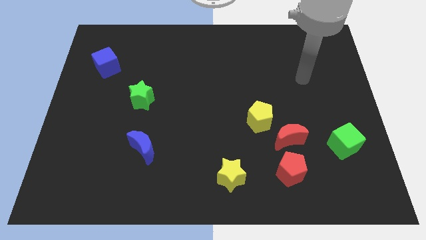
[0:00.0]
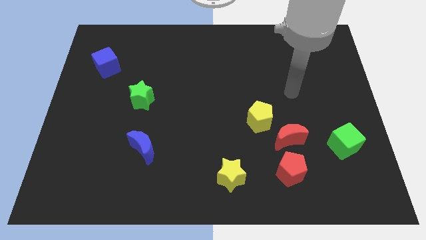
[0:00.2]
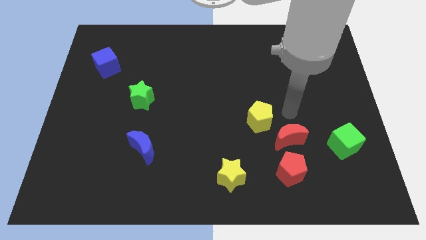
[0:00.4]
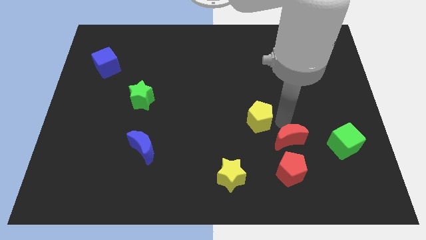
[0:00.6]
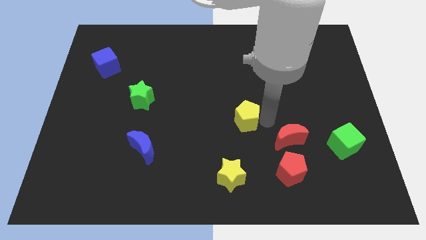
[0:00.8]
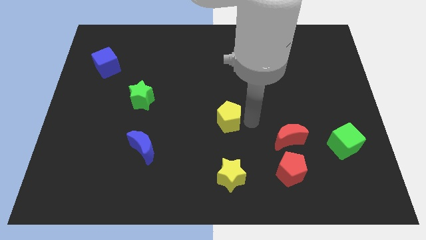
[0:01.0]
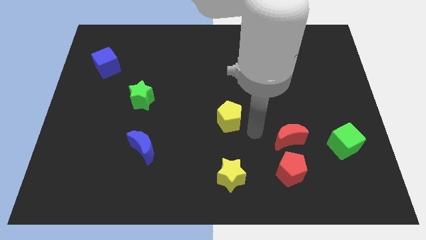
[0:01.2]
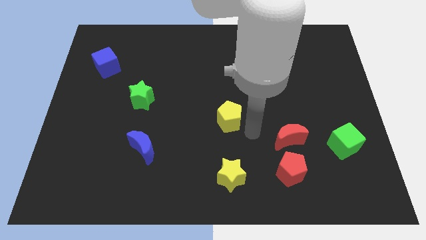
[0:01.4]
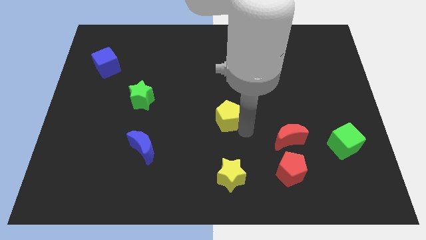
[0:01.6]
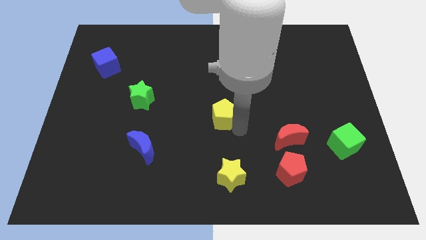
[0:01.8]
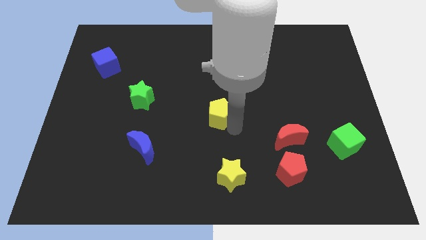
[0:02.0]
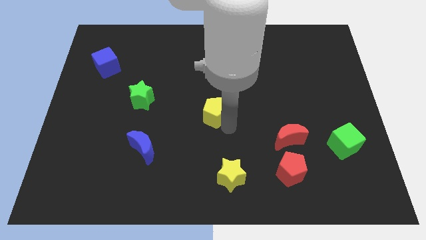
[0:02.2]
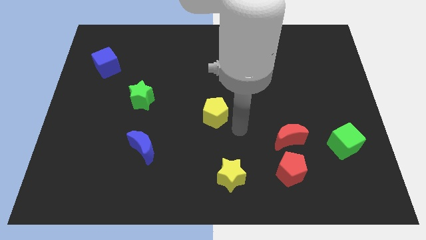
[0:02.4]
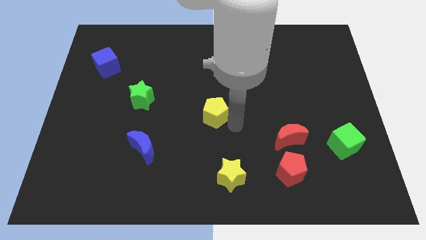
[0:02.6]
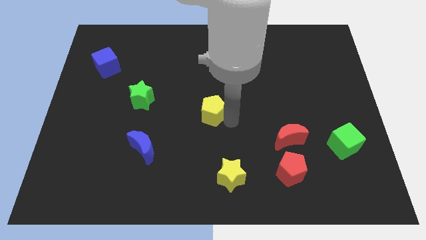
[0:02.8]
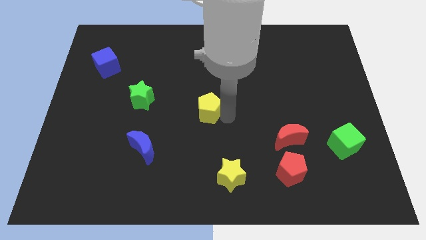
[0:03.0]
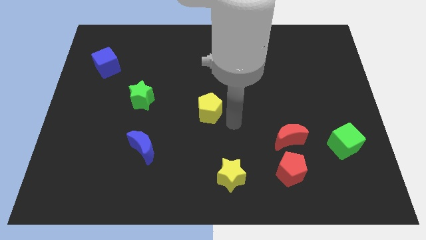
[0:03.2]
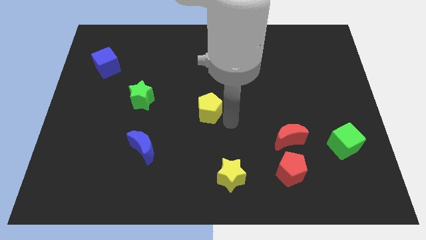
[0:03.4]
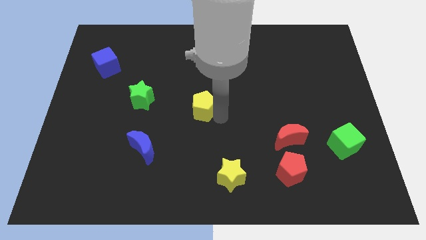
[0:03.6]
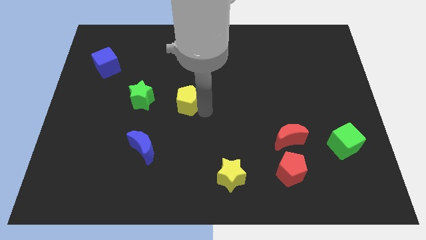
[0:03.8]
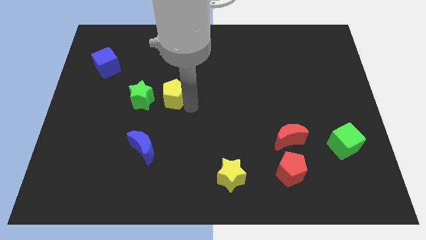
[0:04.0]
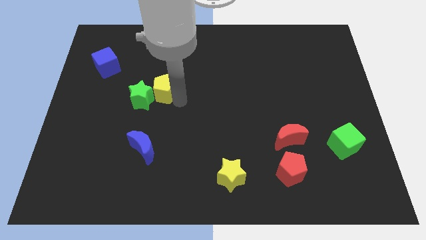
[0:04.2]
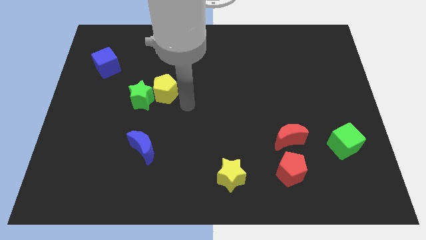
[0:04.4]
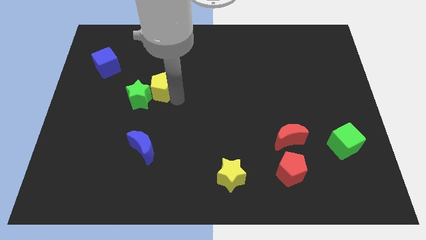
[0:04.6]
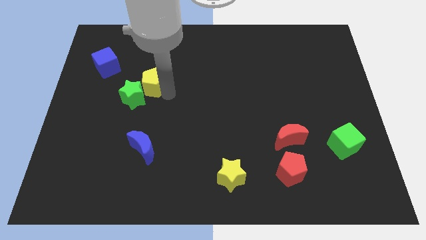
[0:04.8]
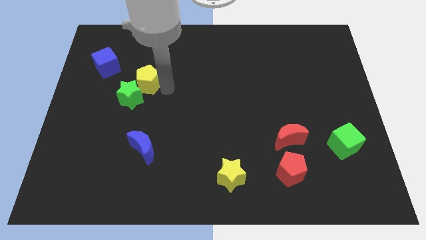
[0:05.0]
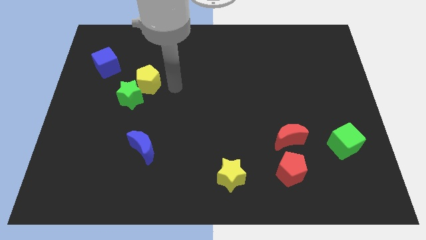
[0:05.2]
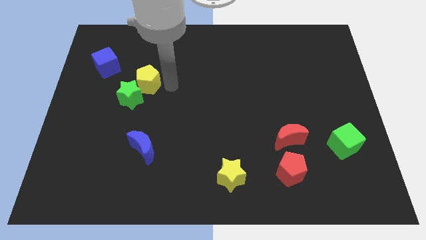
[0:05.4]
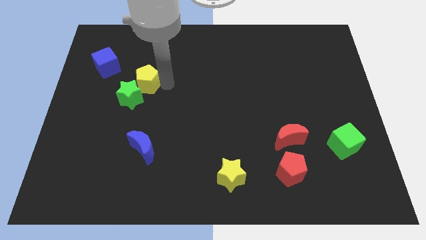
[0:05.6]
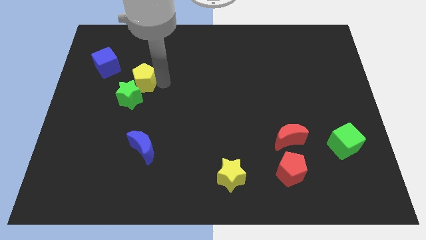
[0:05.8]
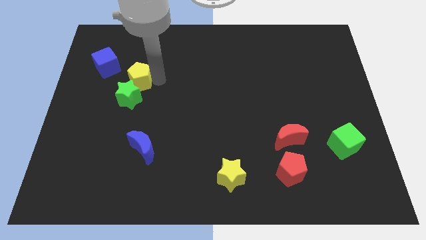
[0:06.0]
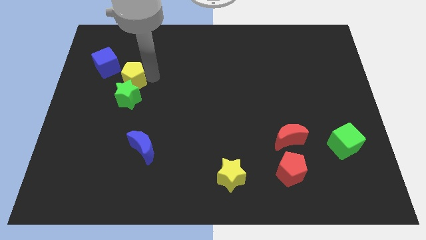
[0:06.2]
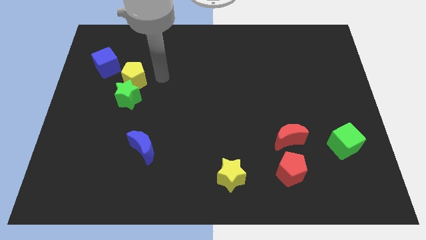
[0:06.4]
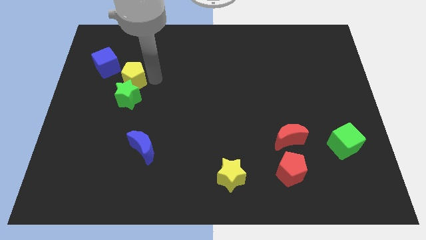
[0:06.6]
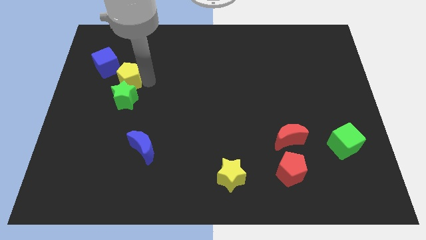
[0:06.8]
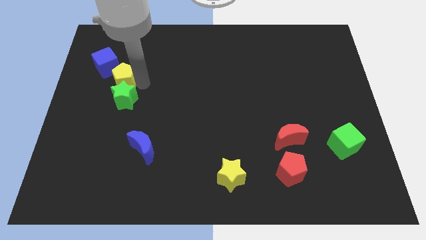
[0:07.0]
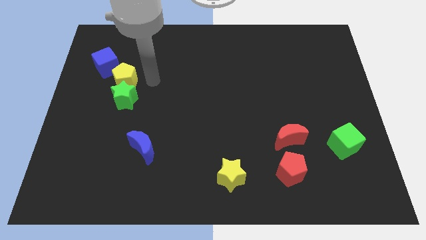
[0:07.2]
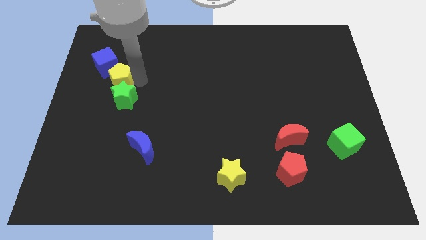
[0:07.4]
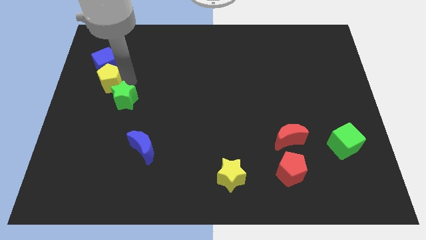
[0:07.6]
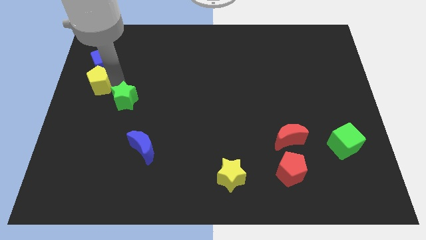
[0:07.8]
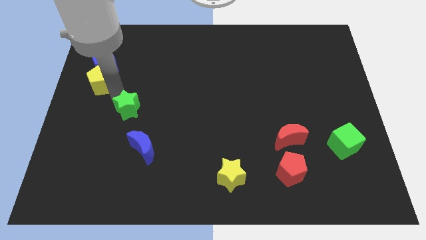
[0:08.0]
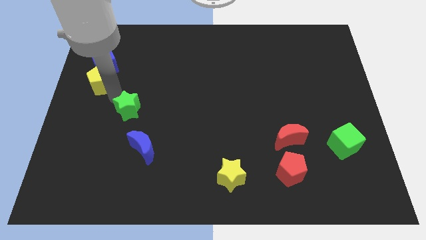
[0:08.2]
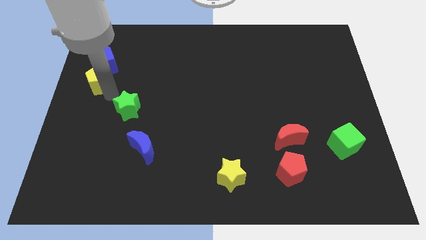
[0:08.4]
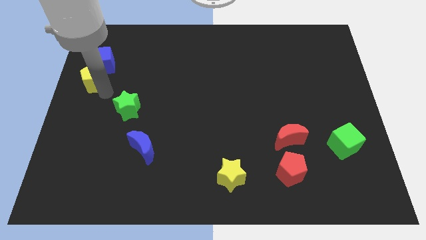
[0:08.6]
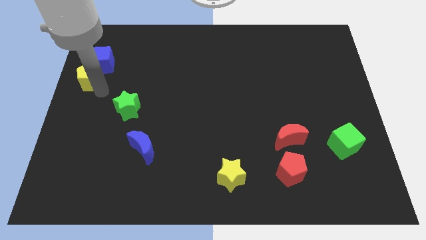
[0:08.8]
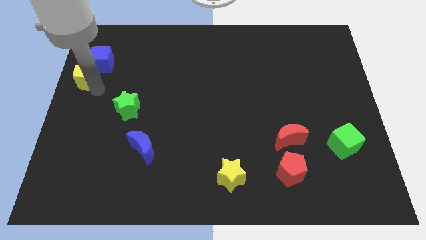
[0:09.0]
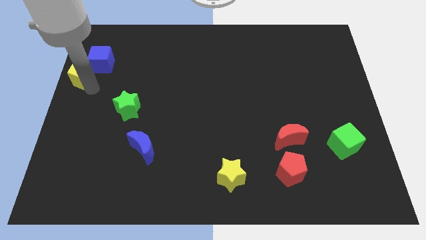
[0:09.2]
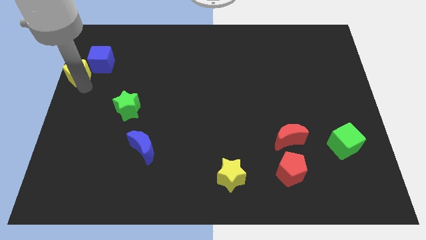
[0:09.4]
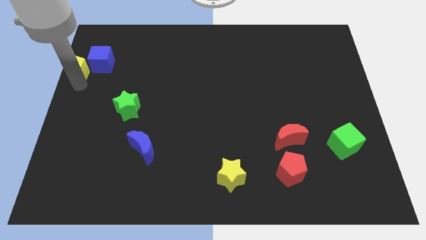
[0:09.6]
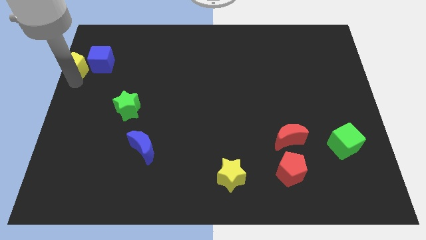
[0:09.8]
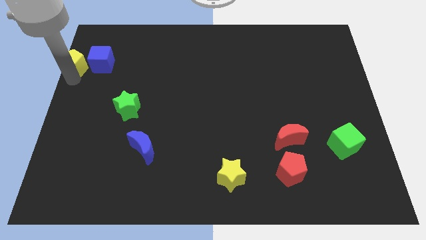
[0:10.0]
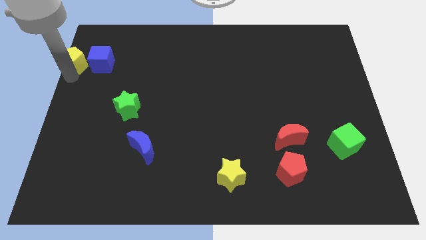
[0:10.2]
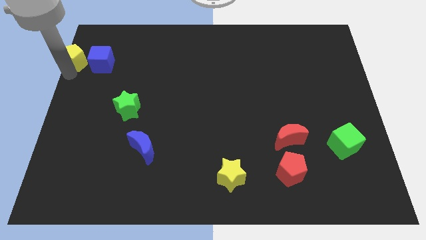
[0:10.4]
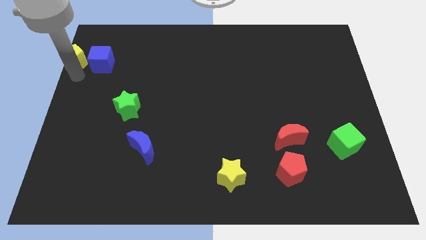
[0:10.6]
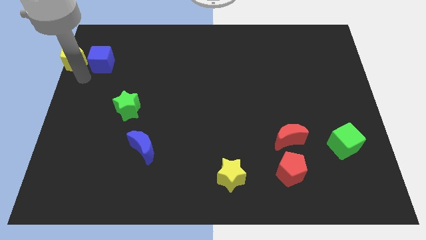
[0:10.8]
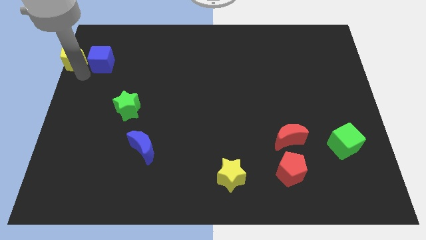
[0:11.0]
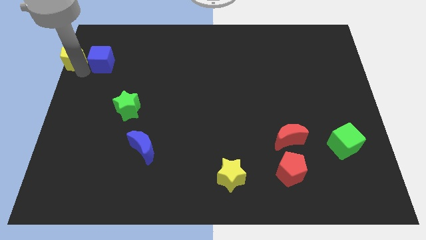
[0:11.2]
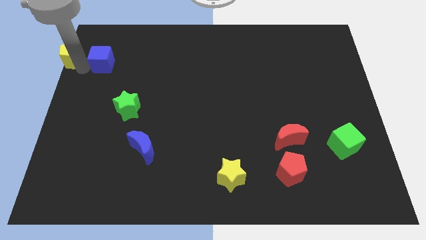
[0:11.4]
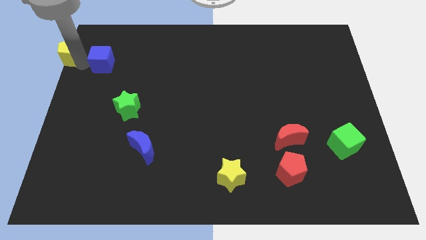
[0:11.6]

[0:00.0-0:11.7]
push the yellow pentagon to the upper left corner
